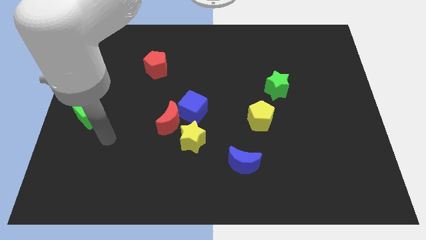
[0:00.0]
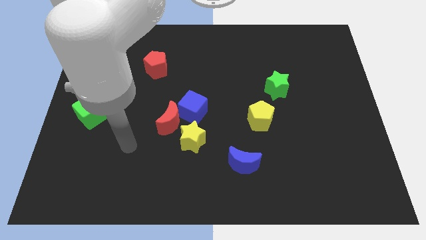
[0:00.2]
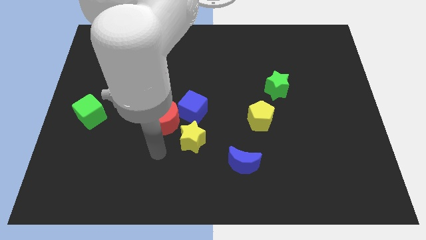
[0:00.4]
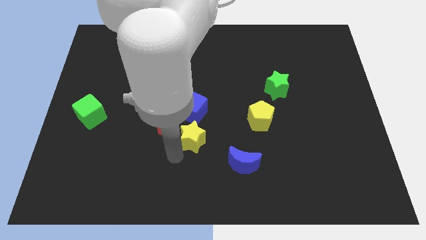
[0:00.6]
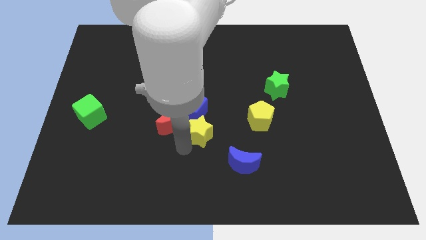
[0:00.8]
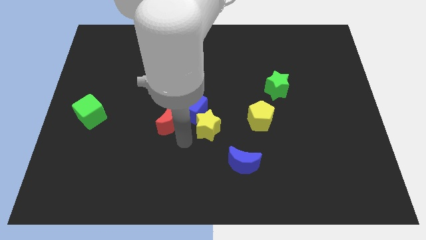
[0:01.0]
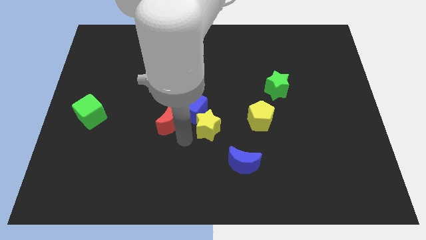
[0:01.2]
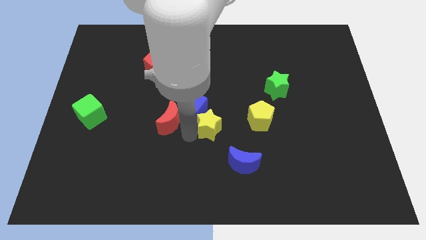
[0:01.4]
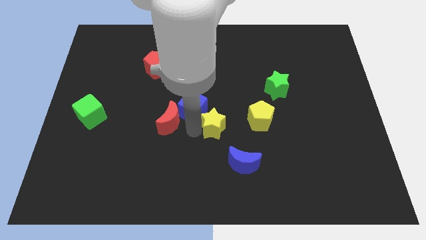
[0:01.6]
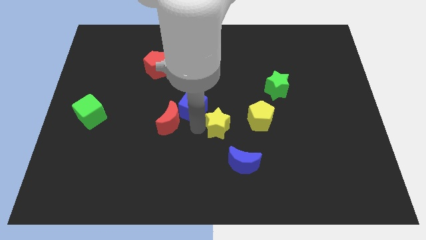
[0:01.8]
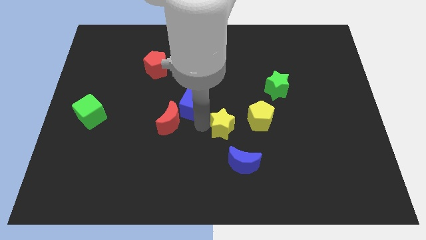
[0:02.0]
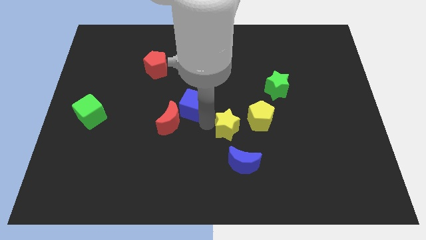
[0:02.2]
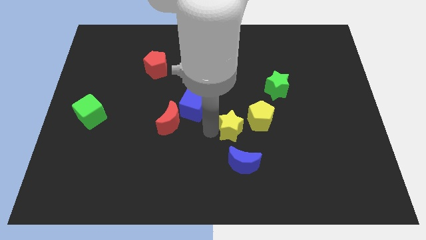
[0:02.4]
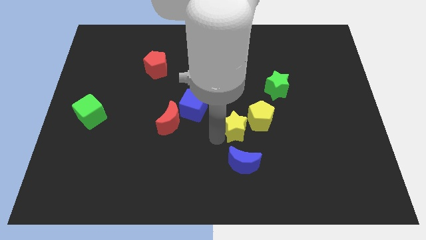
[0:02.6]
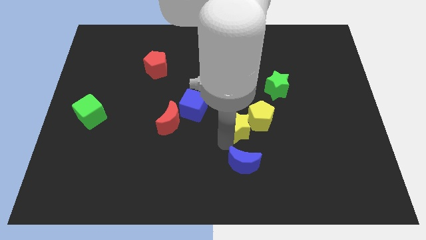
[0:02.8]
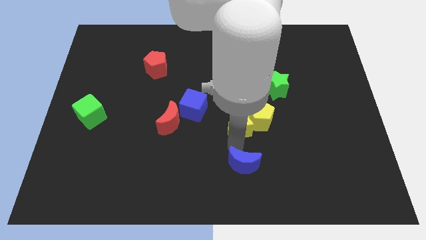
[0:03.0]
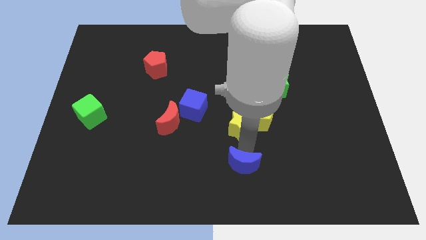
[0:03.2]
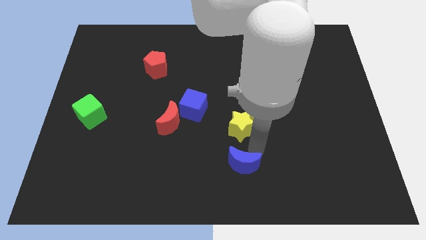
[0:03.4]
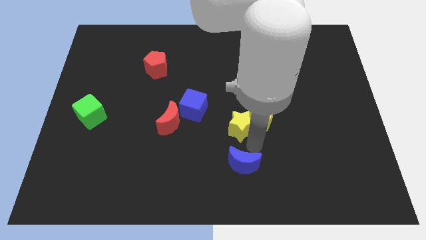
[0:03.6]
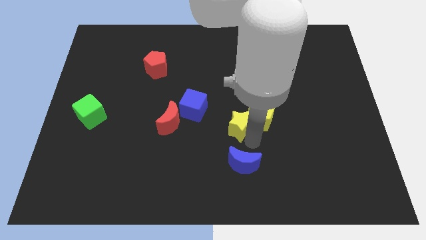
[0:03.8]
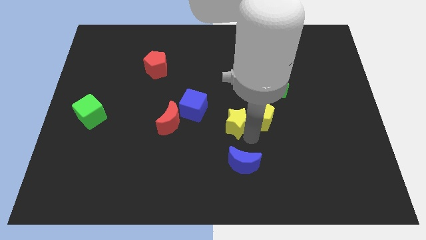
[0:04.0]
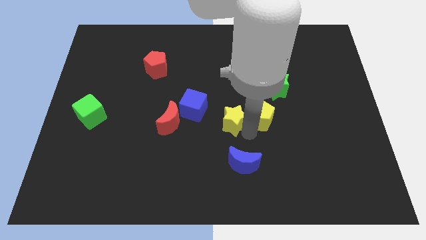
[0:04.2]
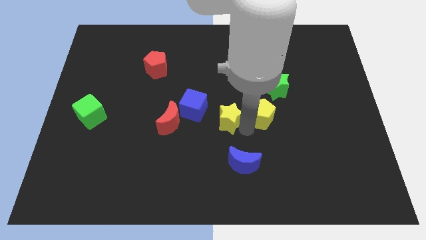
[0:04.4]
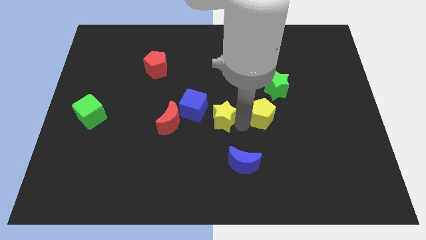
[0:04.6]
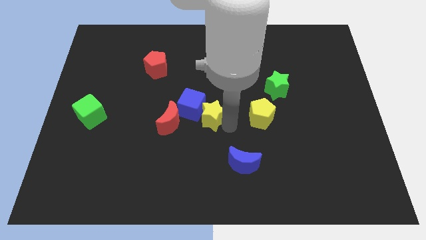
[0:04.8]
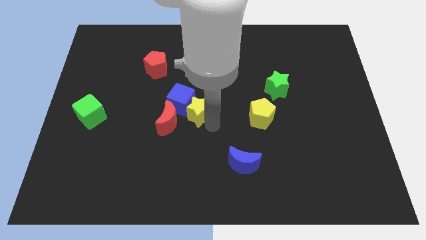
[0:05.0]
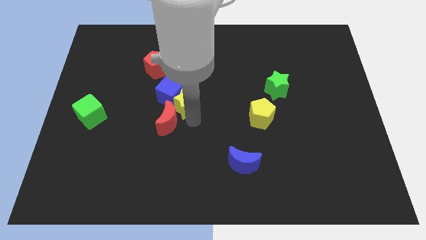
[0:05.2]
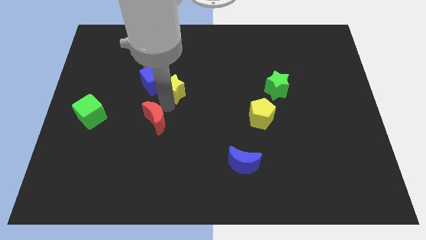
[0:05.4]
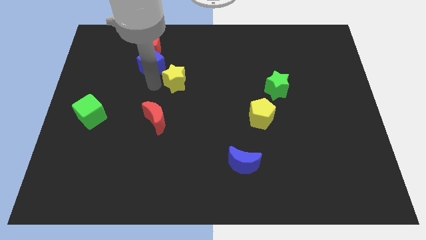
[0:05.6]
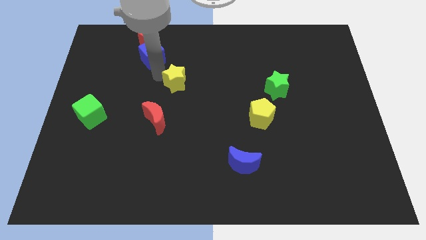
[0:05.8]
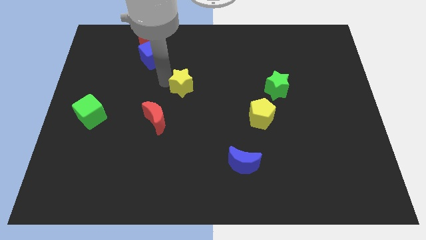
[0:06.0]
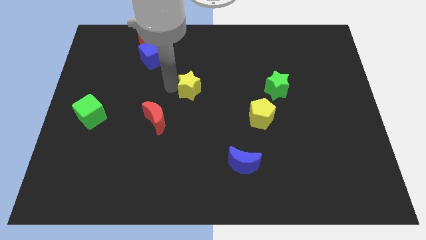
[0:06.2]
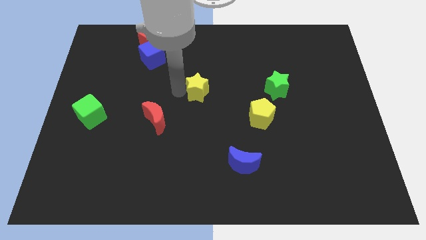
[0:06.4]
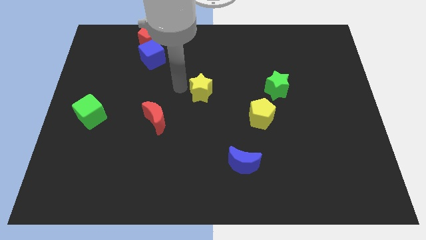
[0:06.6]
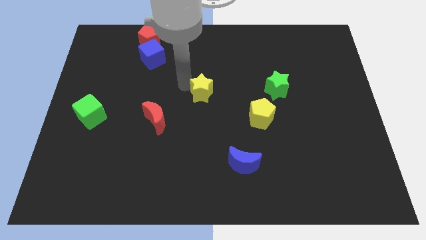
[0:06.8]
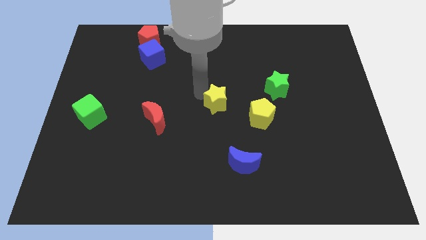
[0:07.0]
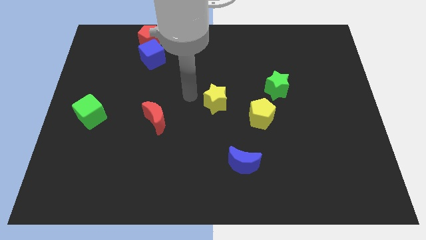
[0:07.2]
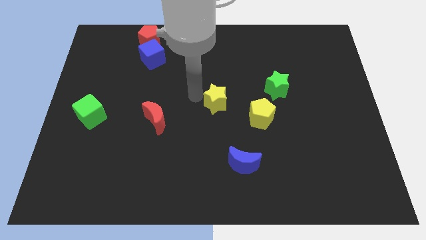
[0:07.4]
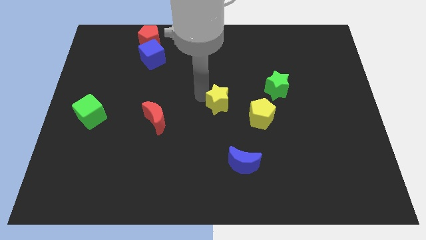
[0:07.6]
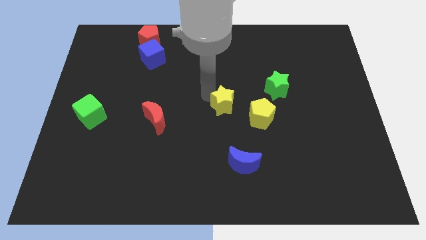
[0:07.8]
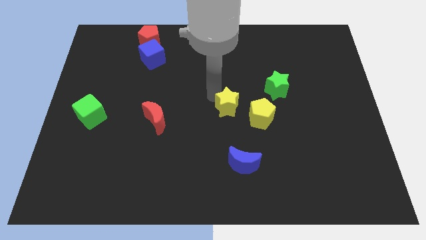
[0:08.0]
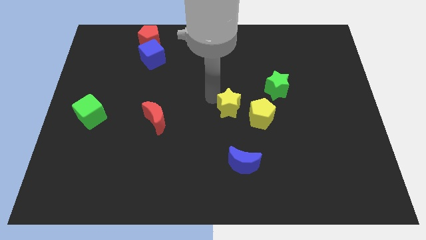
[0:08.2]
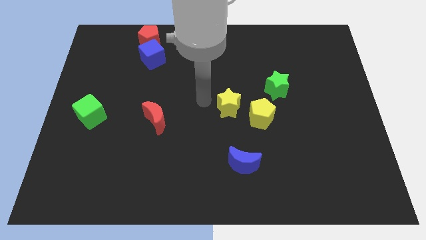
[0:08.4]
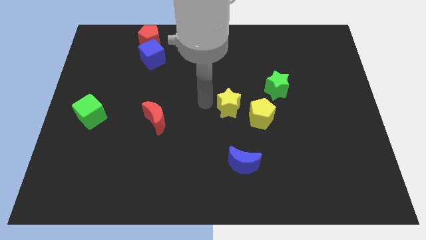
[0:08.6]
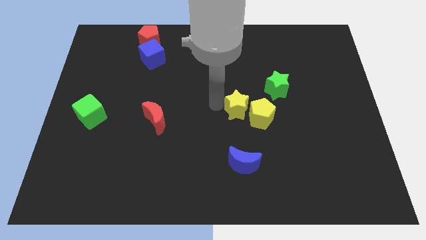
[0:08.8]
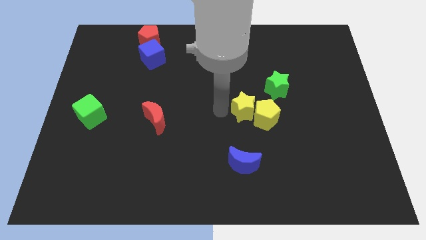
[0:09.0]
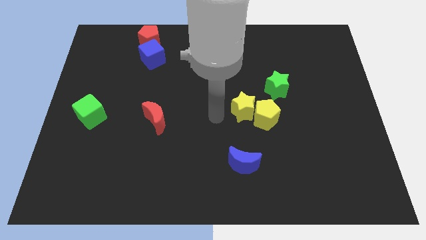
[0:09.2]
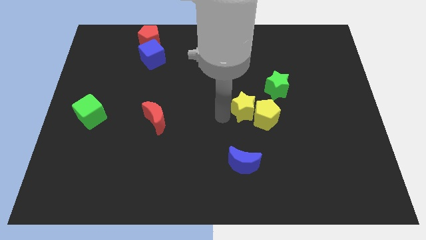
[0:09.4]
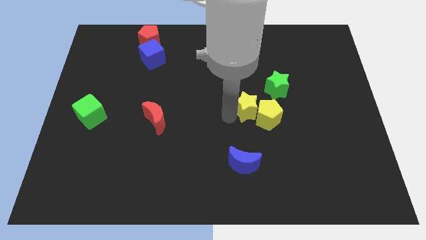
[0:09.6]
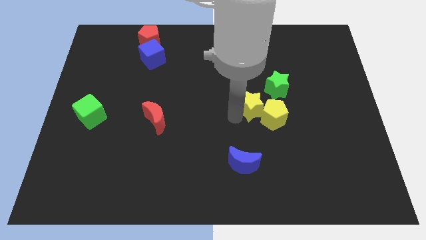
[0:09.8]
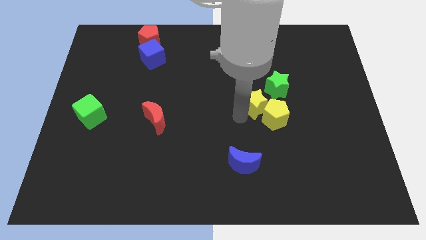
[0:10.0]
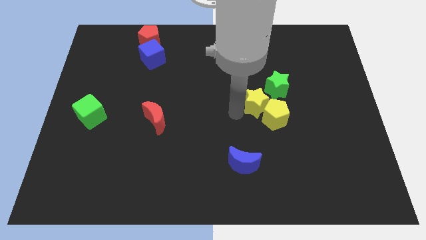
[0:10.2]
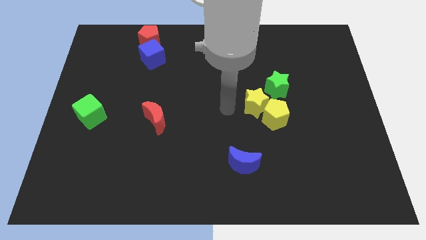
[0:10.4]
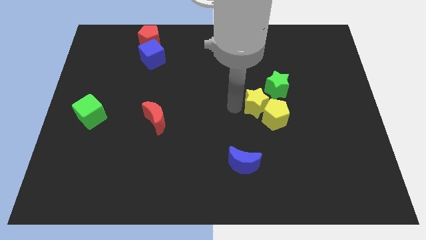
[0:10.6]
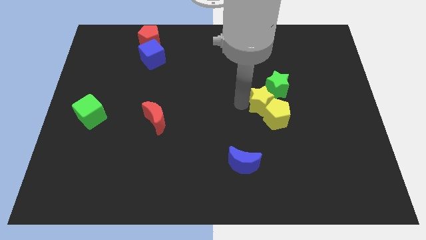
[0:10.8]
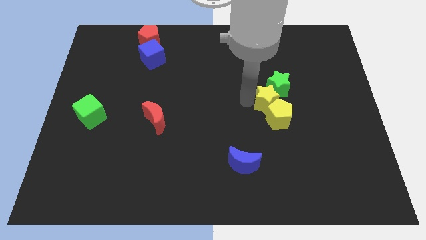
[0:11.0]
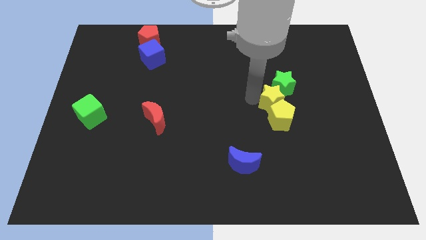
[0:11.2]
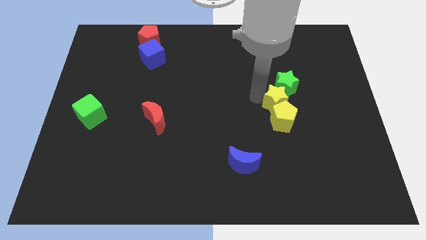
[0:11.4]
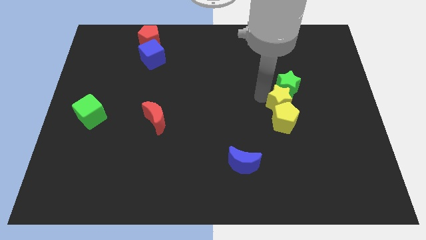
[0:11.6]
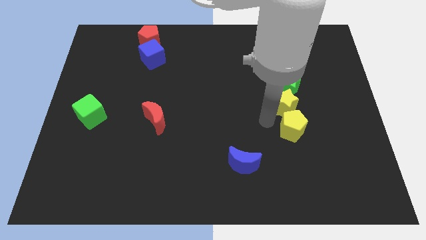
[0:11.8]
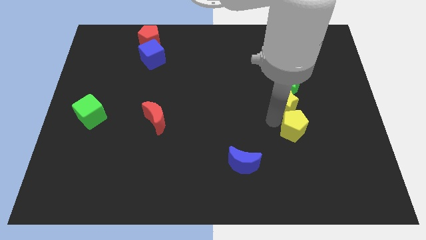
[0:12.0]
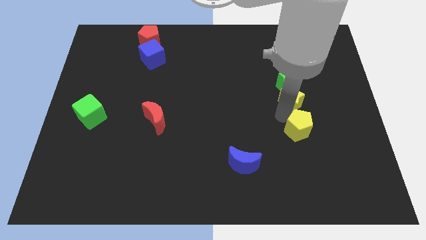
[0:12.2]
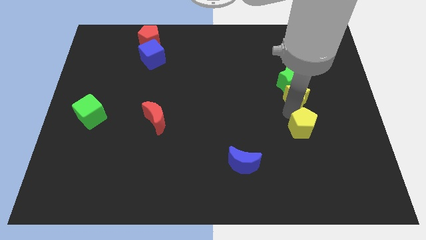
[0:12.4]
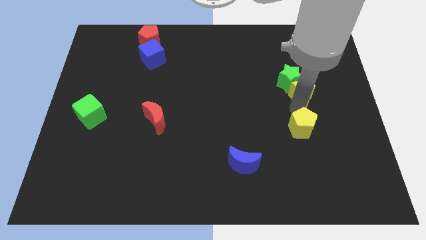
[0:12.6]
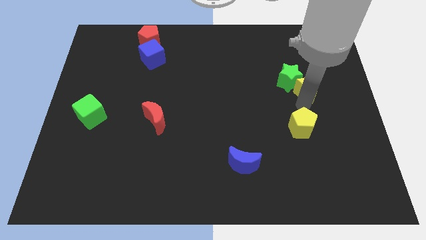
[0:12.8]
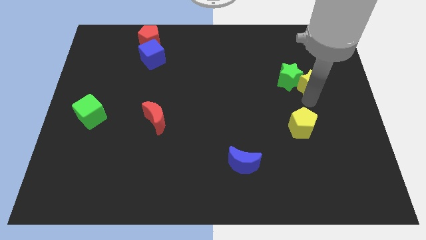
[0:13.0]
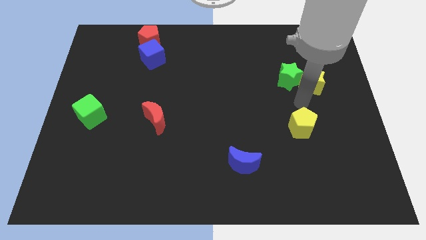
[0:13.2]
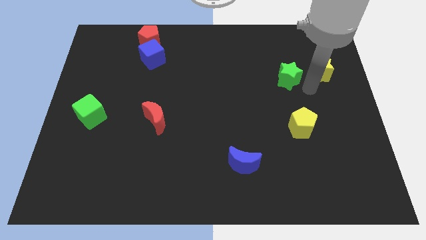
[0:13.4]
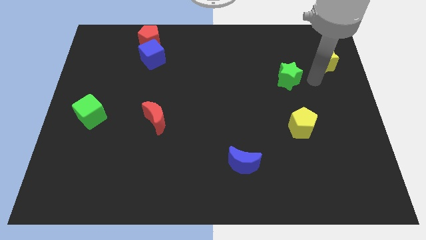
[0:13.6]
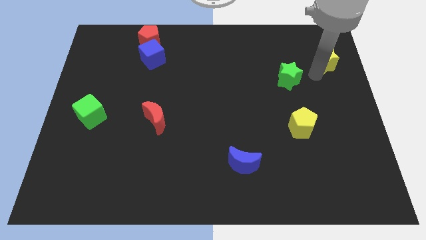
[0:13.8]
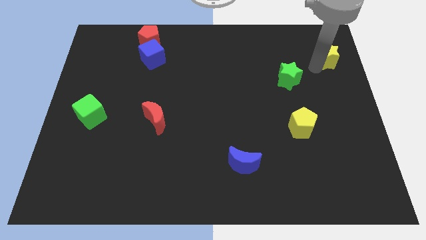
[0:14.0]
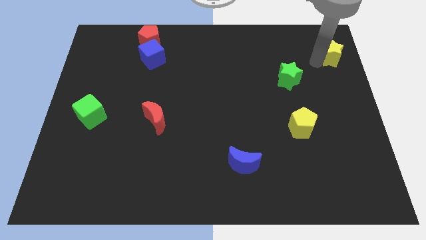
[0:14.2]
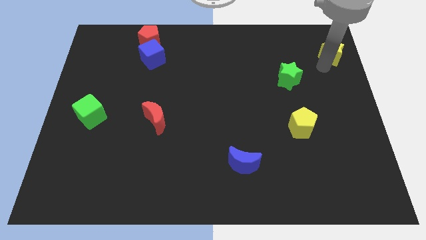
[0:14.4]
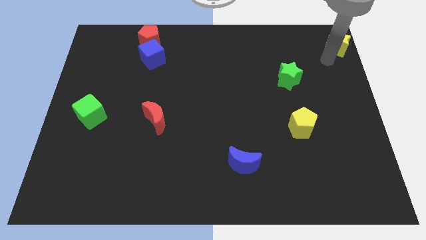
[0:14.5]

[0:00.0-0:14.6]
move the yellow star to the top right of the board
